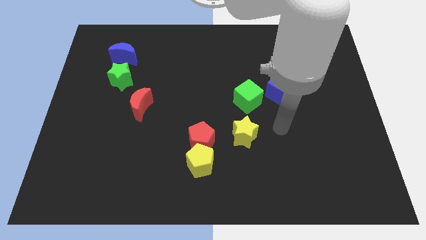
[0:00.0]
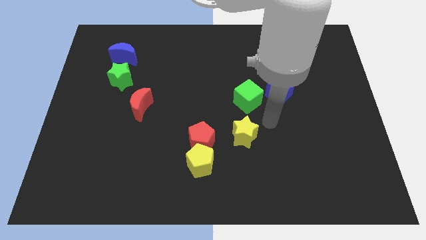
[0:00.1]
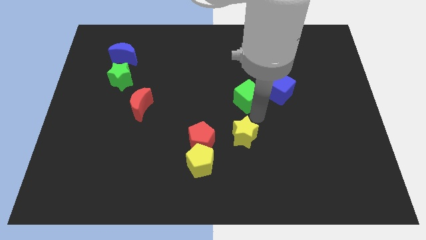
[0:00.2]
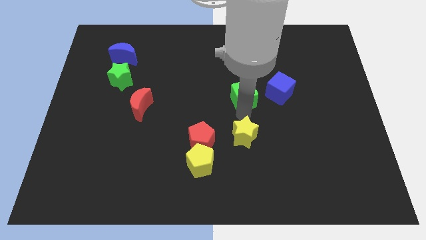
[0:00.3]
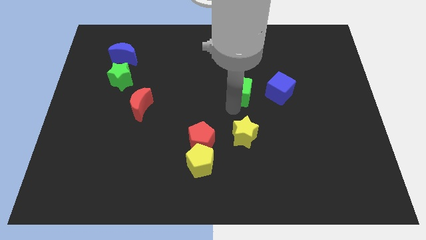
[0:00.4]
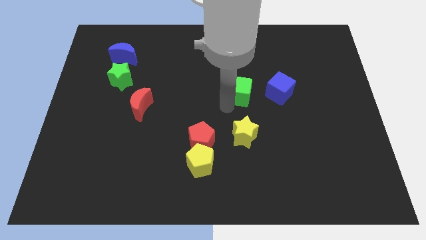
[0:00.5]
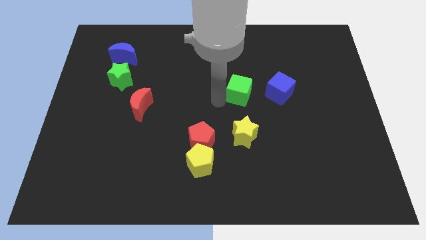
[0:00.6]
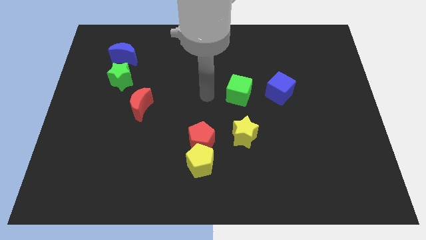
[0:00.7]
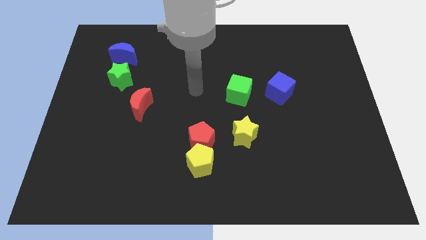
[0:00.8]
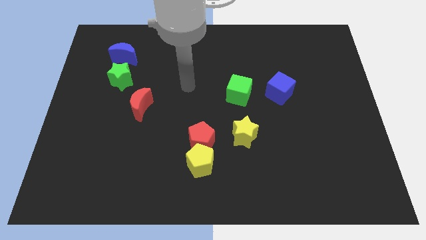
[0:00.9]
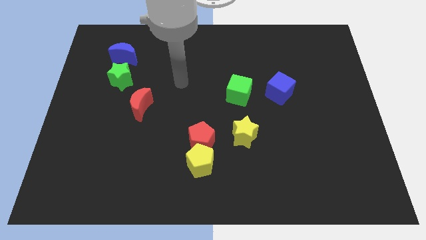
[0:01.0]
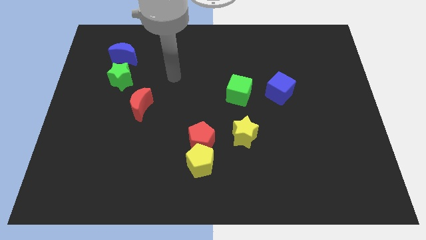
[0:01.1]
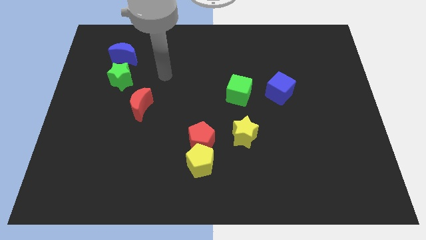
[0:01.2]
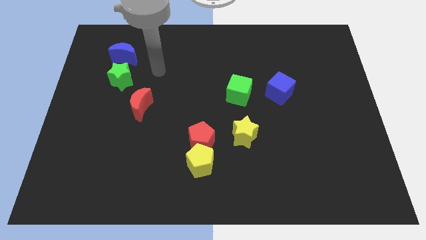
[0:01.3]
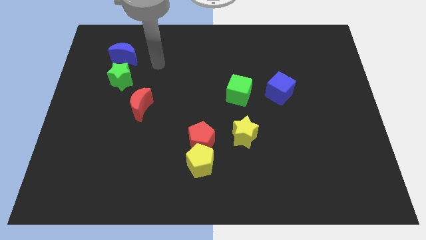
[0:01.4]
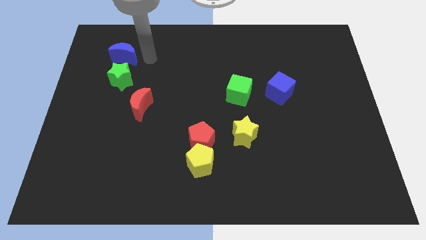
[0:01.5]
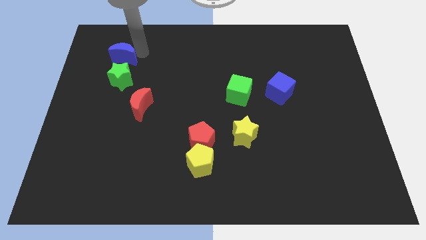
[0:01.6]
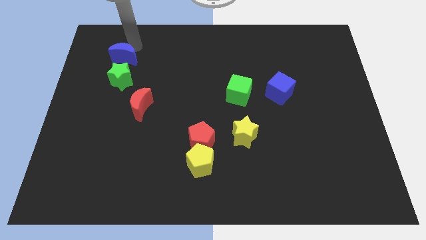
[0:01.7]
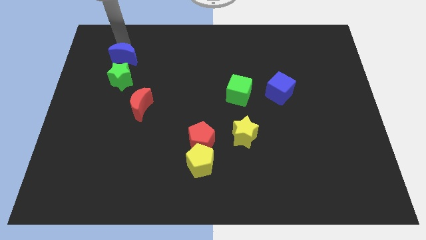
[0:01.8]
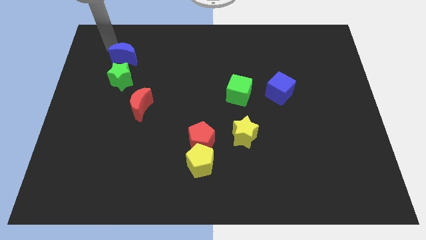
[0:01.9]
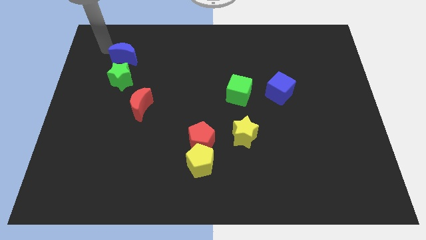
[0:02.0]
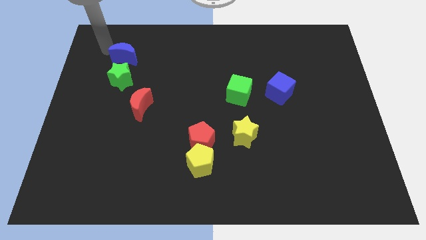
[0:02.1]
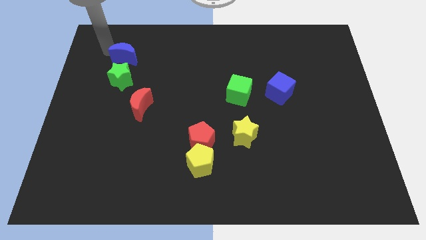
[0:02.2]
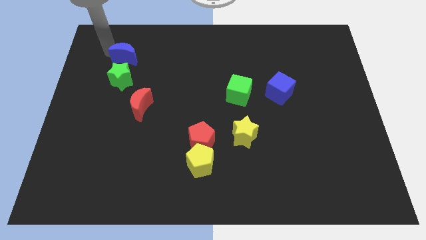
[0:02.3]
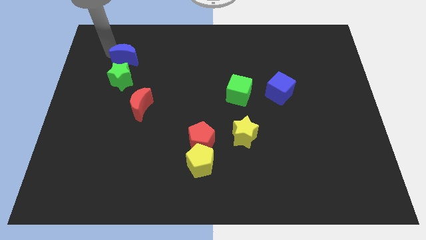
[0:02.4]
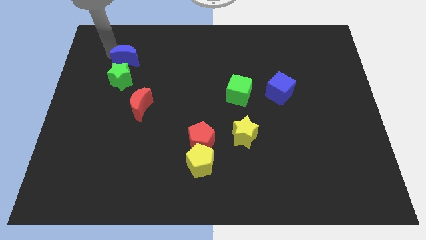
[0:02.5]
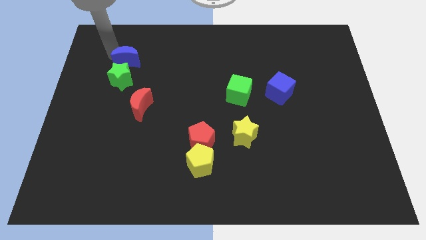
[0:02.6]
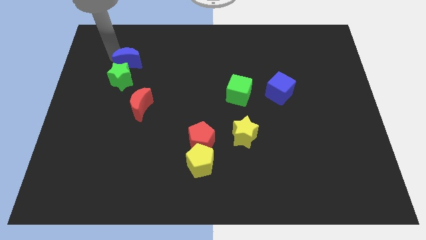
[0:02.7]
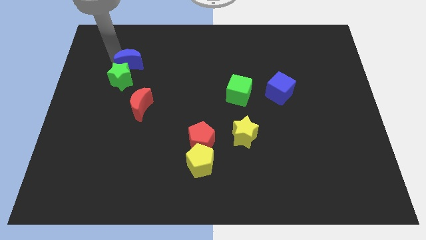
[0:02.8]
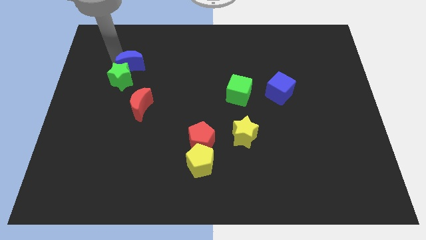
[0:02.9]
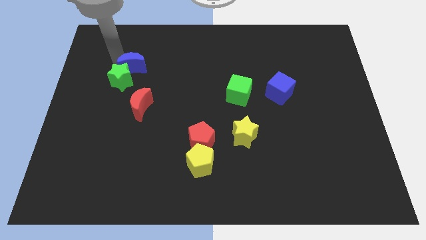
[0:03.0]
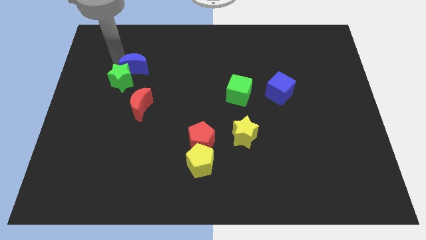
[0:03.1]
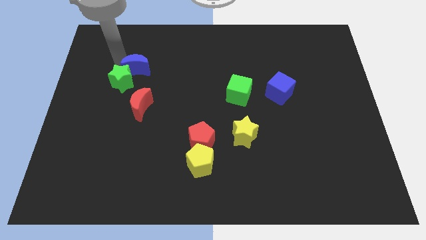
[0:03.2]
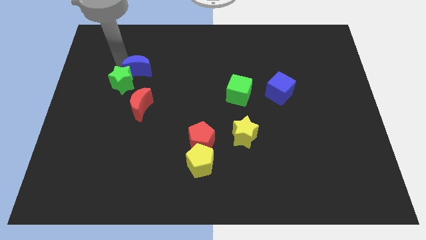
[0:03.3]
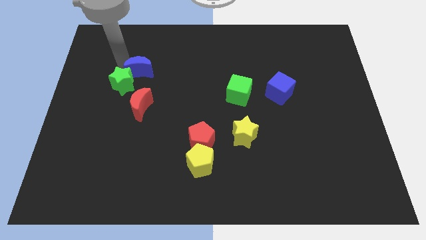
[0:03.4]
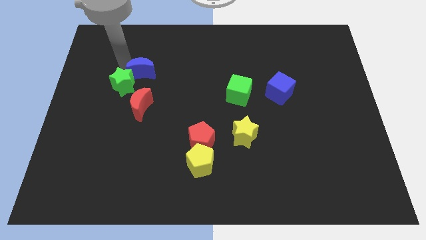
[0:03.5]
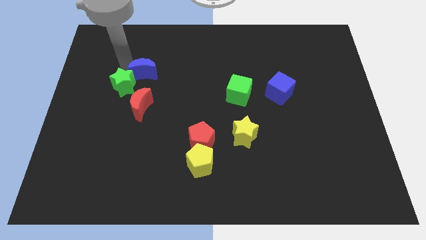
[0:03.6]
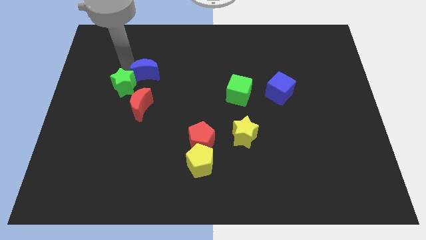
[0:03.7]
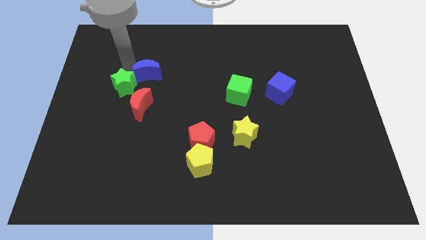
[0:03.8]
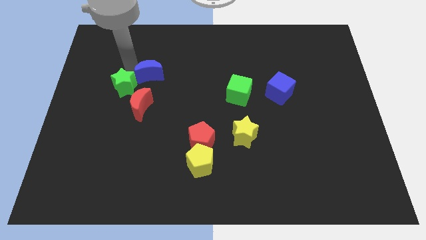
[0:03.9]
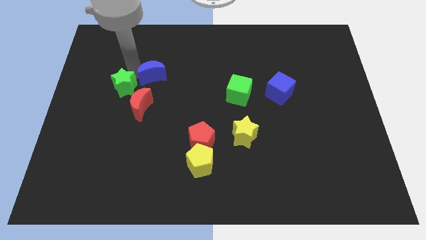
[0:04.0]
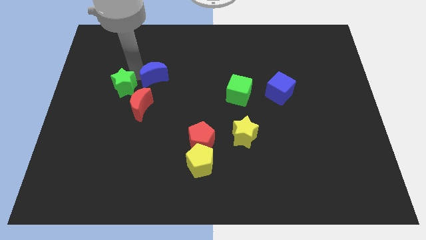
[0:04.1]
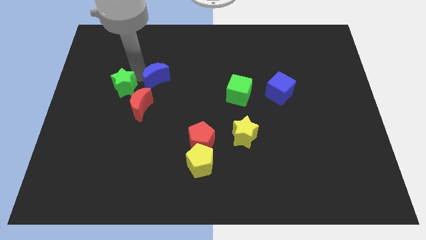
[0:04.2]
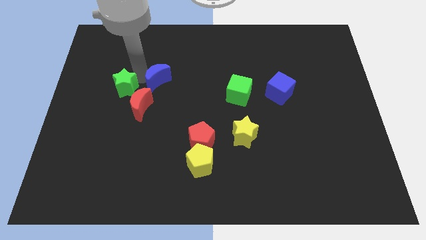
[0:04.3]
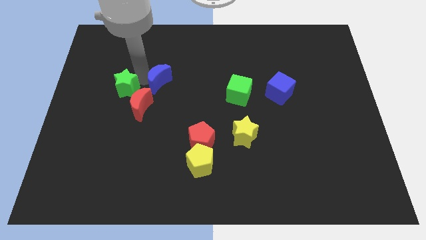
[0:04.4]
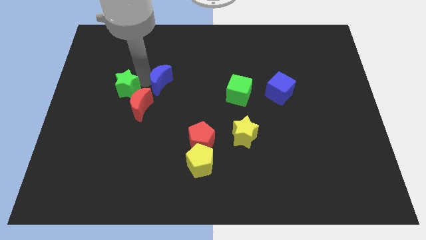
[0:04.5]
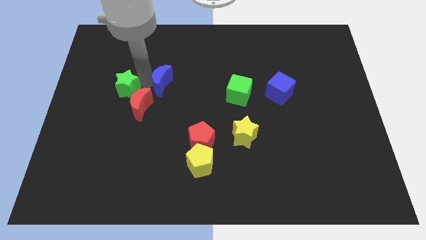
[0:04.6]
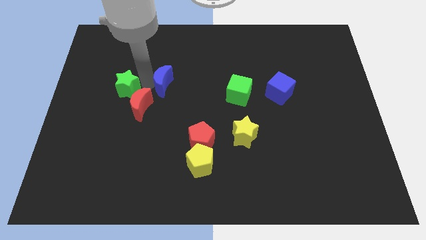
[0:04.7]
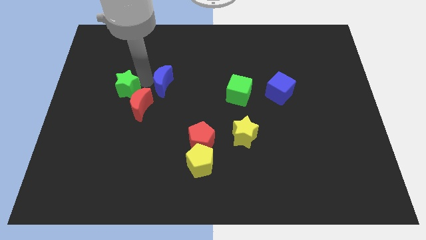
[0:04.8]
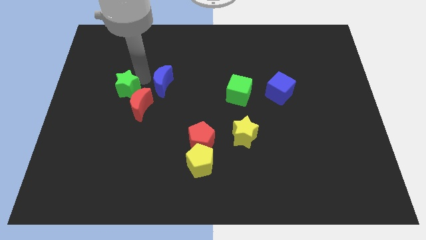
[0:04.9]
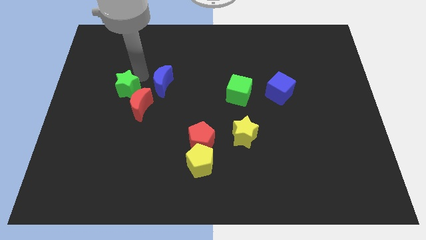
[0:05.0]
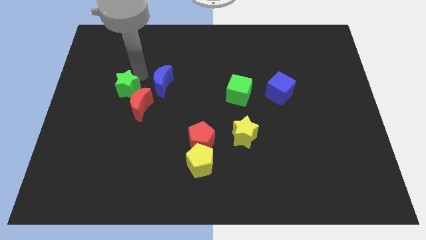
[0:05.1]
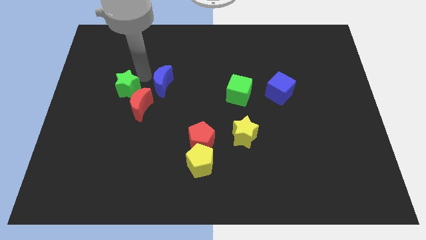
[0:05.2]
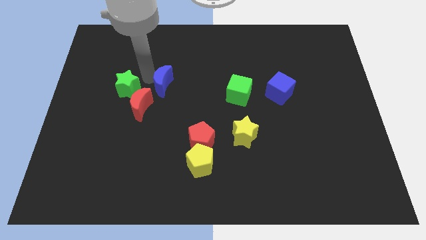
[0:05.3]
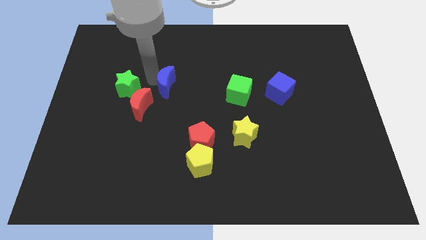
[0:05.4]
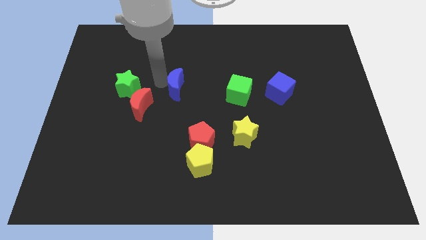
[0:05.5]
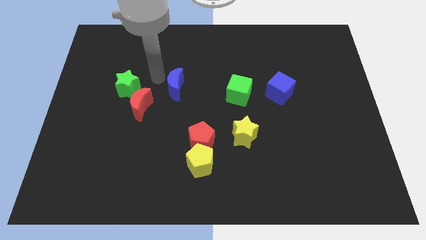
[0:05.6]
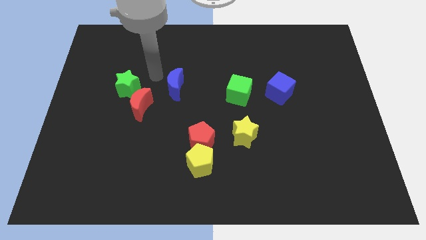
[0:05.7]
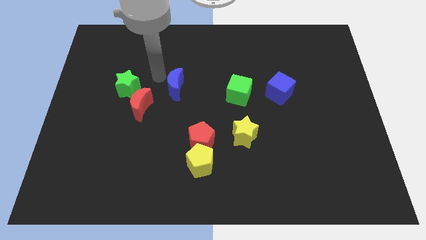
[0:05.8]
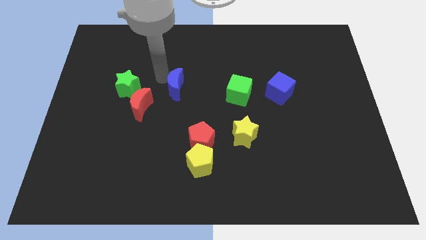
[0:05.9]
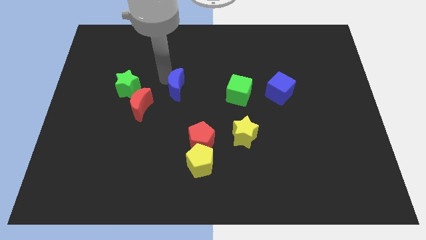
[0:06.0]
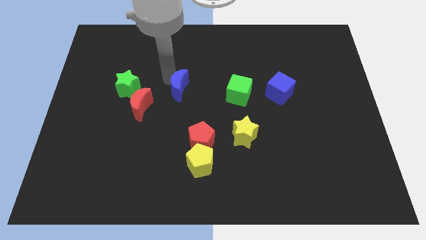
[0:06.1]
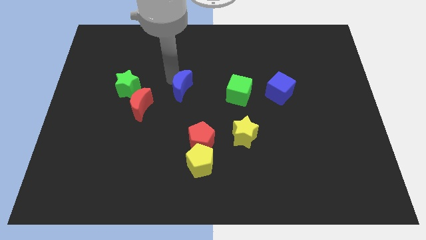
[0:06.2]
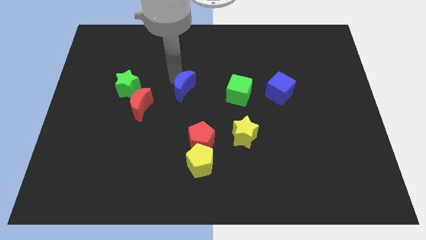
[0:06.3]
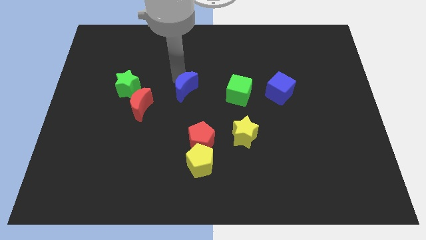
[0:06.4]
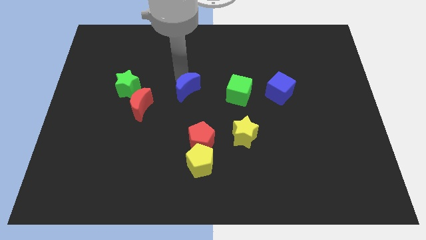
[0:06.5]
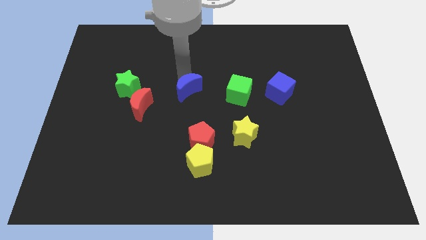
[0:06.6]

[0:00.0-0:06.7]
push the blue moon above the red pentagon
